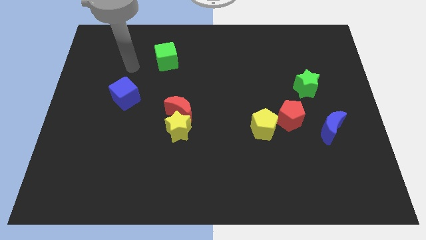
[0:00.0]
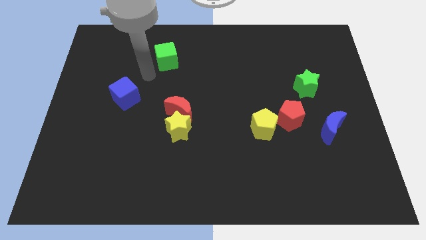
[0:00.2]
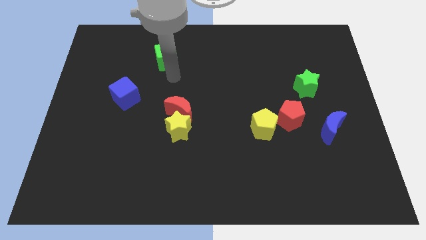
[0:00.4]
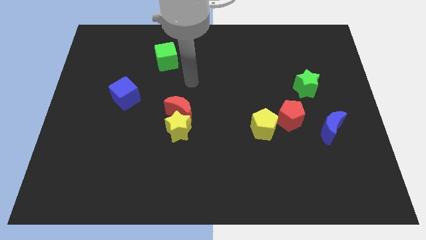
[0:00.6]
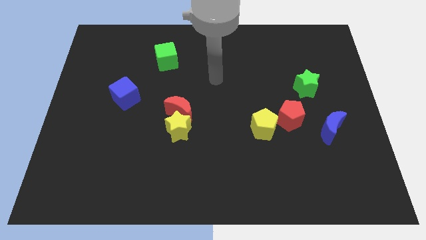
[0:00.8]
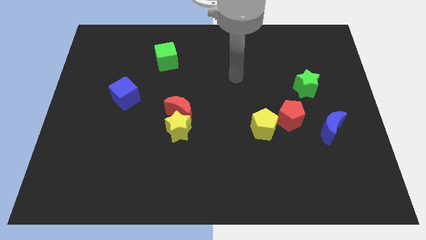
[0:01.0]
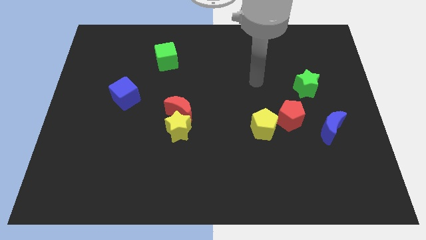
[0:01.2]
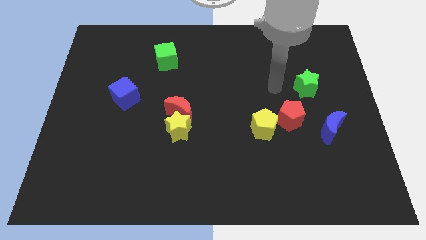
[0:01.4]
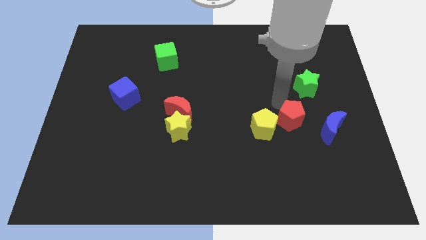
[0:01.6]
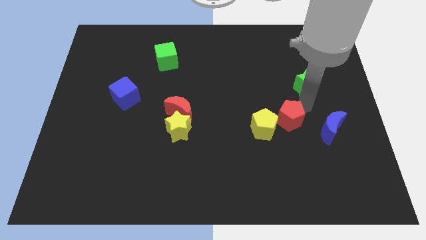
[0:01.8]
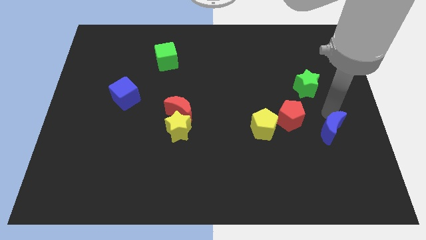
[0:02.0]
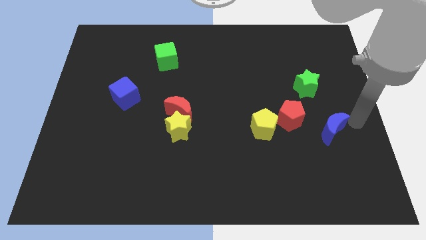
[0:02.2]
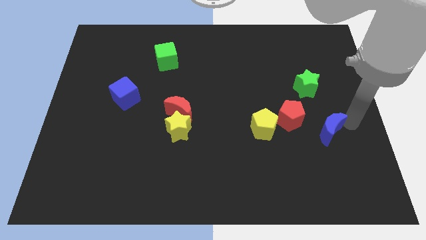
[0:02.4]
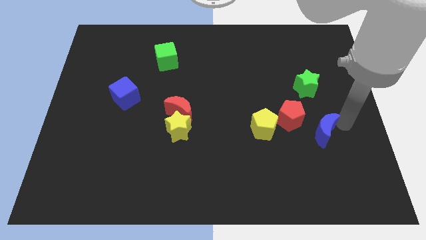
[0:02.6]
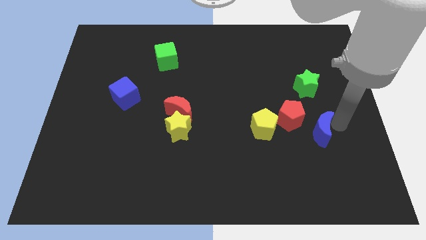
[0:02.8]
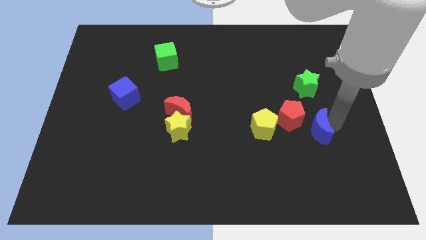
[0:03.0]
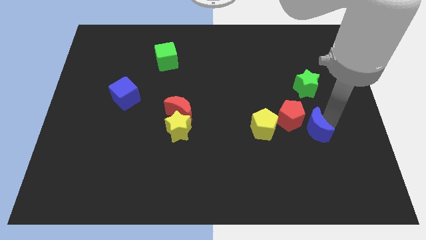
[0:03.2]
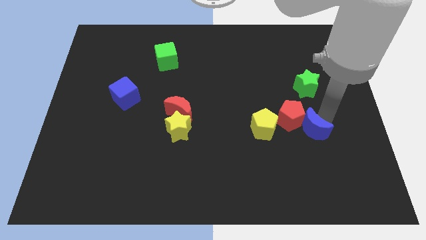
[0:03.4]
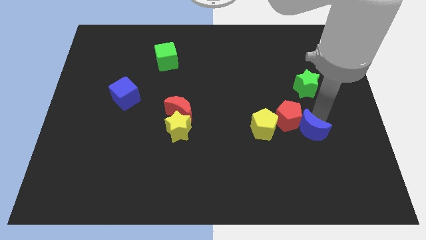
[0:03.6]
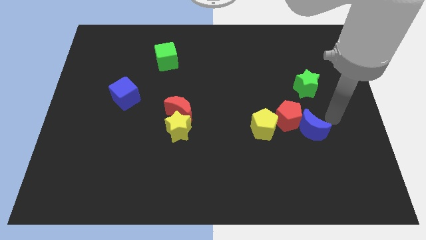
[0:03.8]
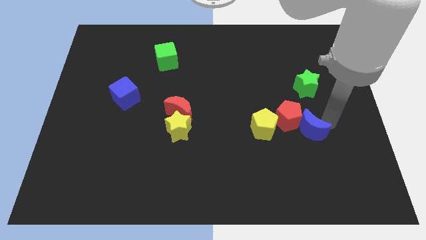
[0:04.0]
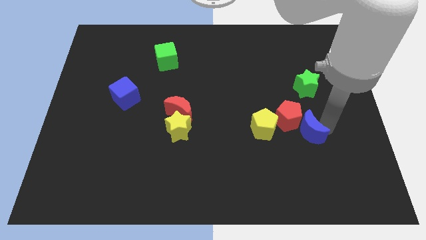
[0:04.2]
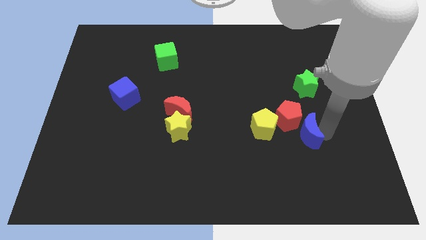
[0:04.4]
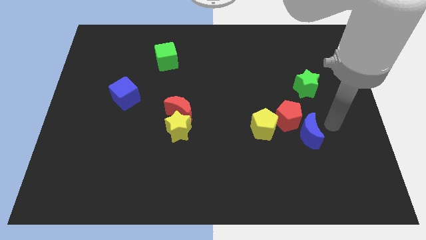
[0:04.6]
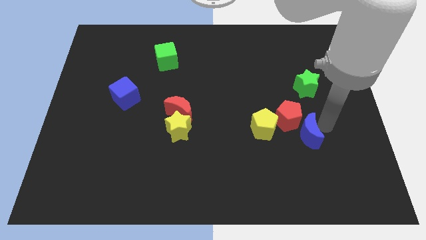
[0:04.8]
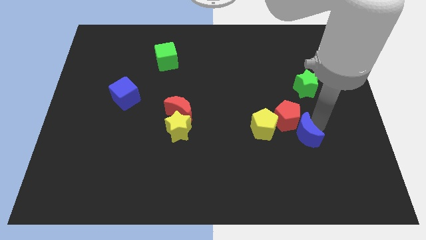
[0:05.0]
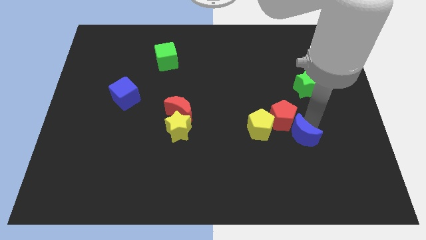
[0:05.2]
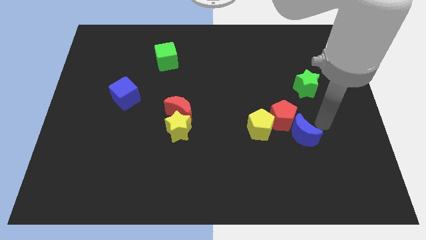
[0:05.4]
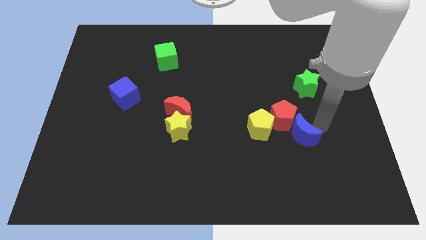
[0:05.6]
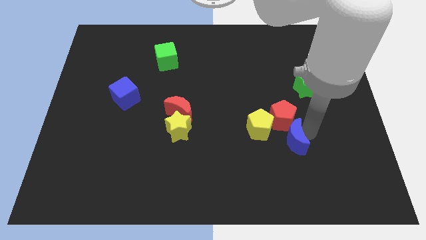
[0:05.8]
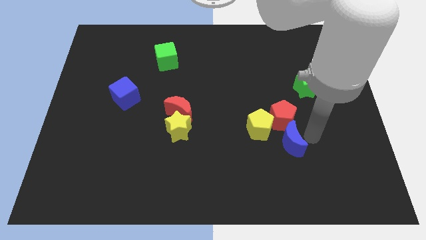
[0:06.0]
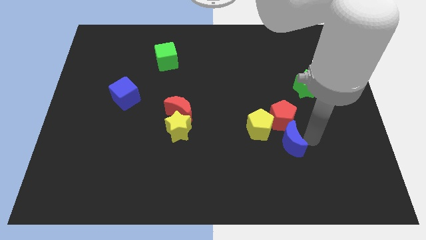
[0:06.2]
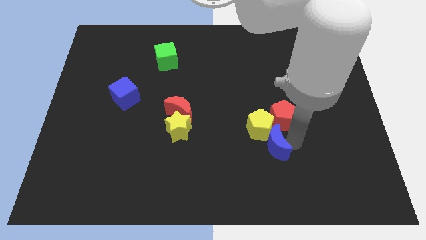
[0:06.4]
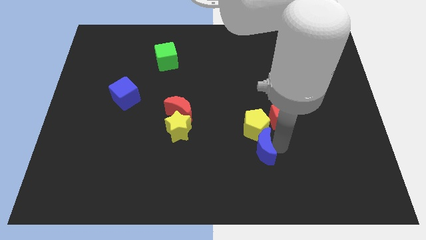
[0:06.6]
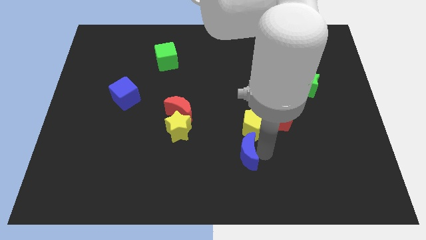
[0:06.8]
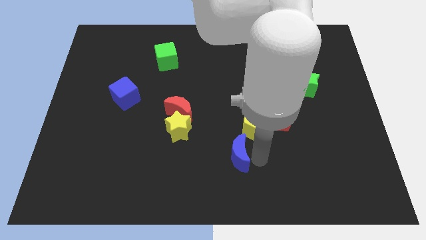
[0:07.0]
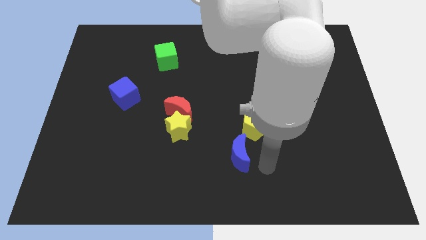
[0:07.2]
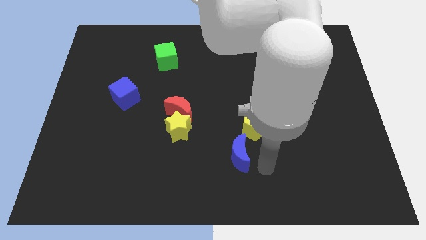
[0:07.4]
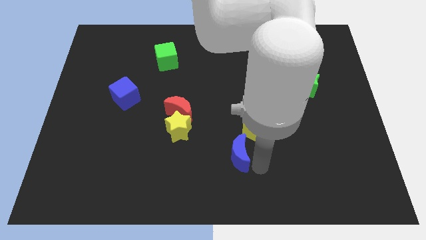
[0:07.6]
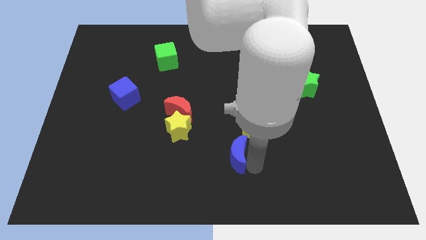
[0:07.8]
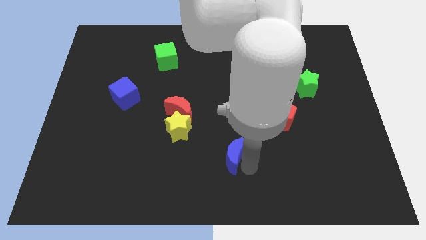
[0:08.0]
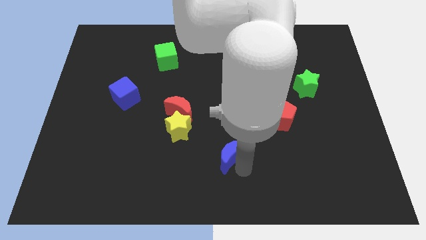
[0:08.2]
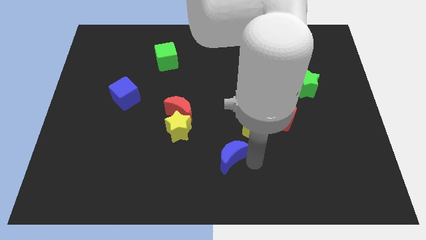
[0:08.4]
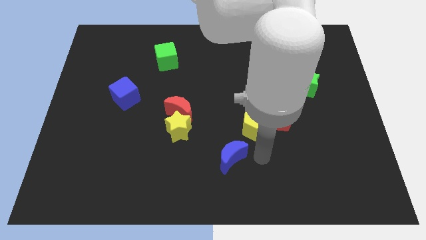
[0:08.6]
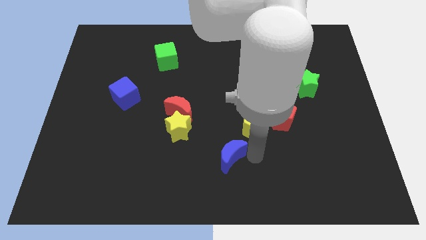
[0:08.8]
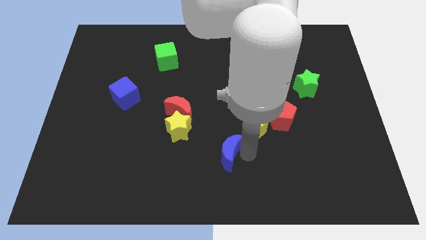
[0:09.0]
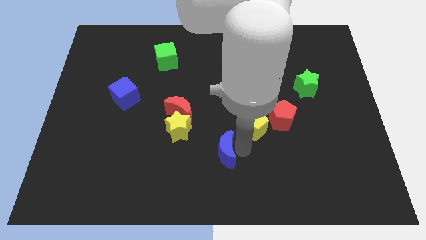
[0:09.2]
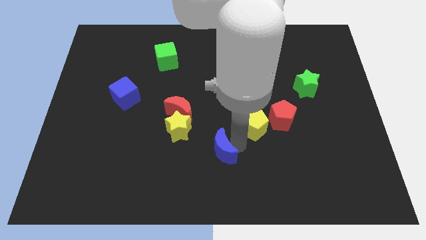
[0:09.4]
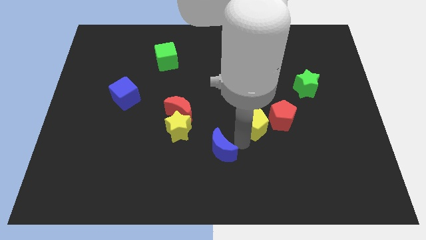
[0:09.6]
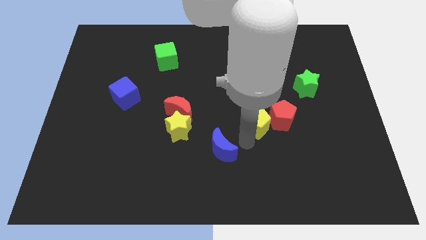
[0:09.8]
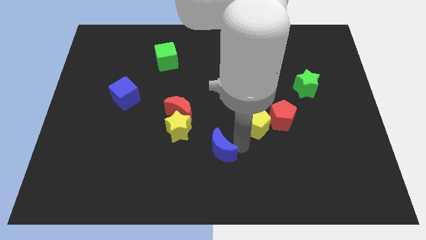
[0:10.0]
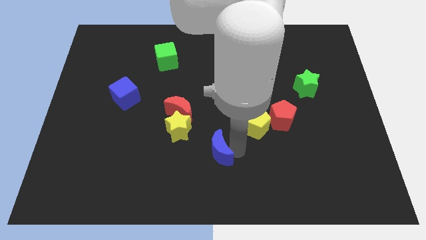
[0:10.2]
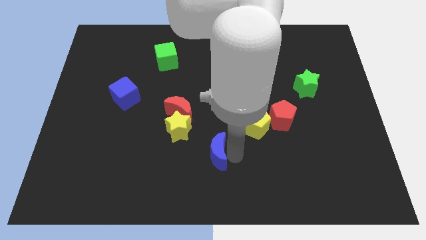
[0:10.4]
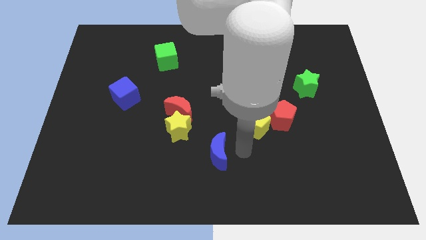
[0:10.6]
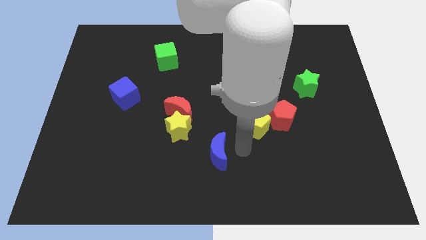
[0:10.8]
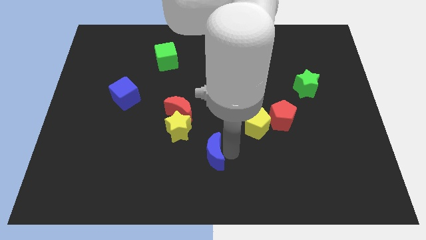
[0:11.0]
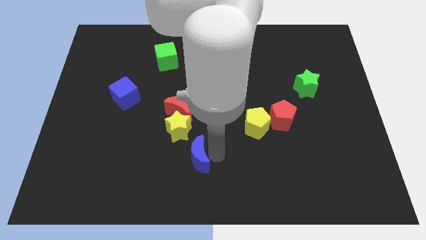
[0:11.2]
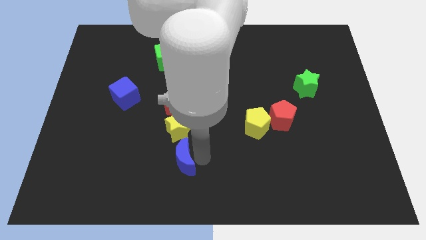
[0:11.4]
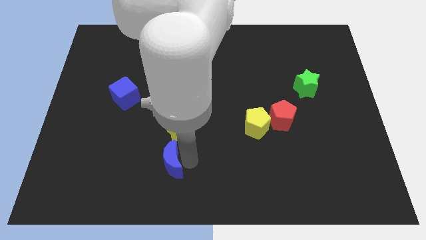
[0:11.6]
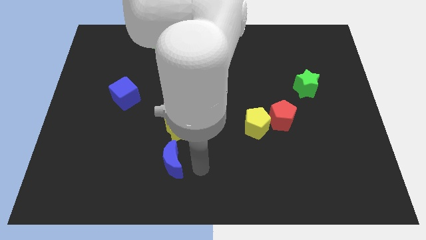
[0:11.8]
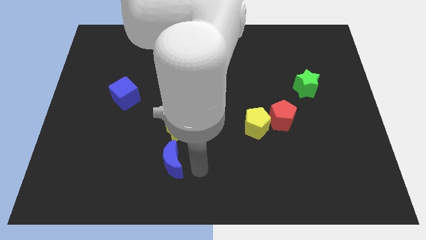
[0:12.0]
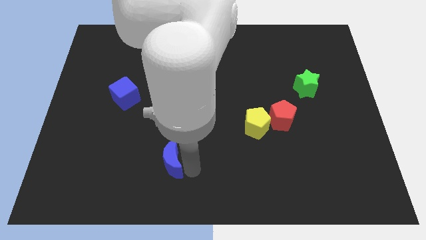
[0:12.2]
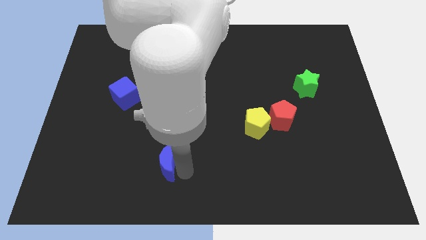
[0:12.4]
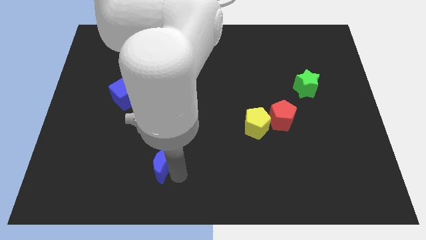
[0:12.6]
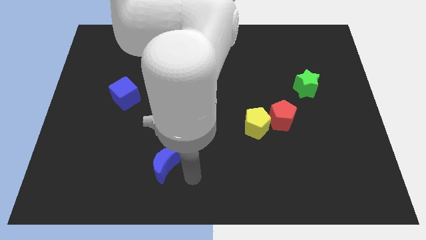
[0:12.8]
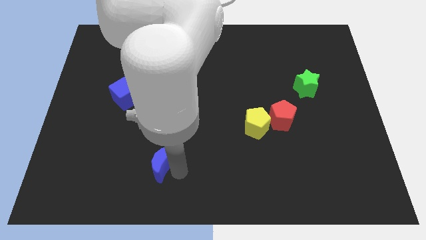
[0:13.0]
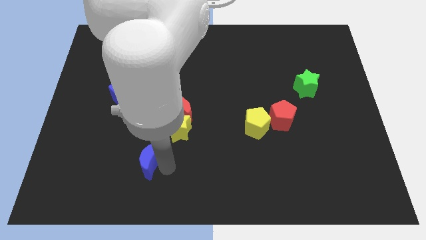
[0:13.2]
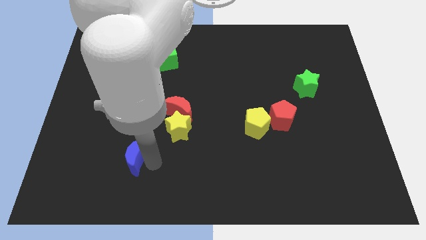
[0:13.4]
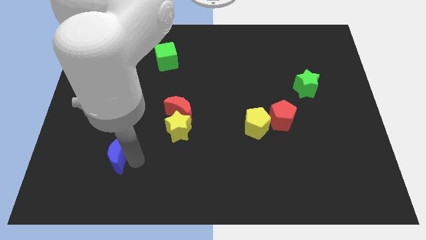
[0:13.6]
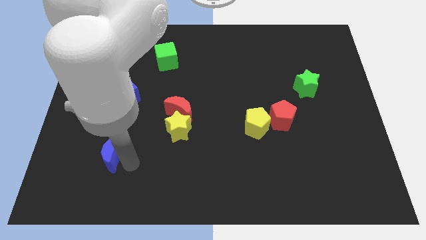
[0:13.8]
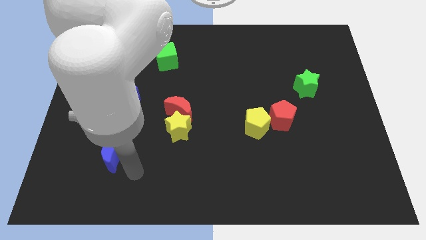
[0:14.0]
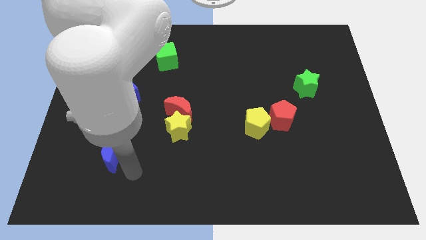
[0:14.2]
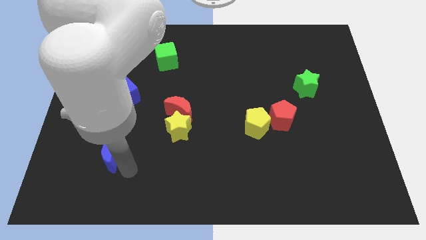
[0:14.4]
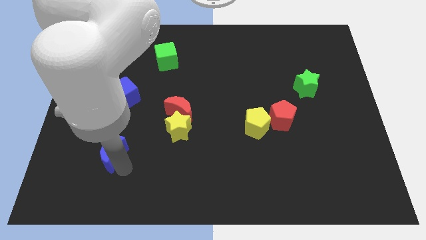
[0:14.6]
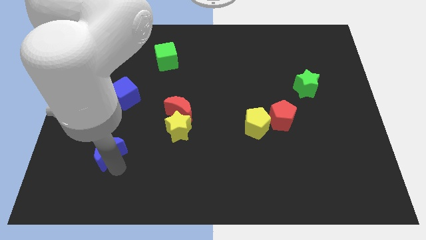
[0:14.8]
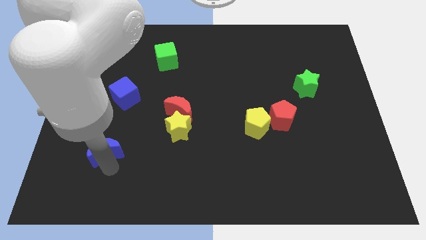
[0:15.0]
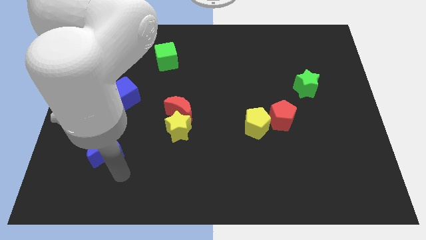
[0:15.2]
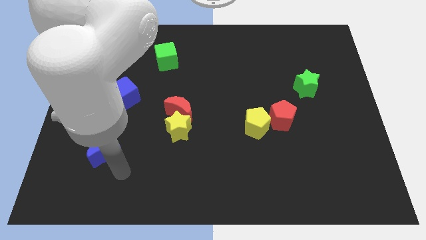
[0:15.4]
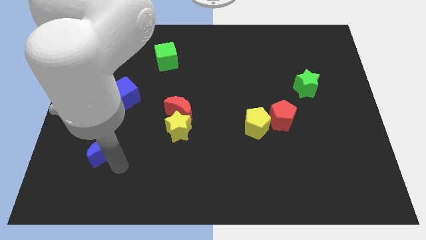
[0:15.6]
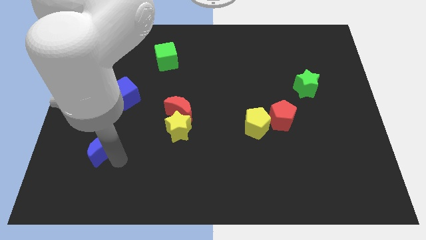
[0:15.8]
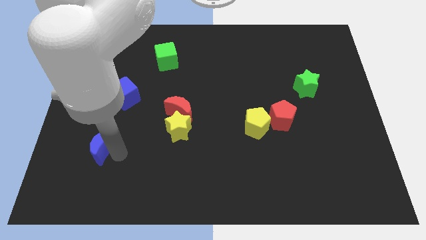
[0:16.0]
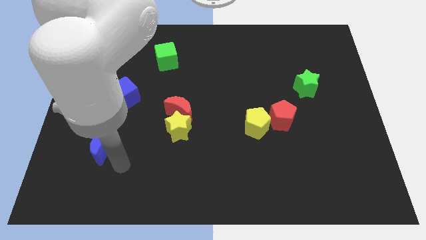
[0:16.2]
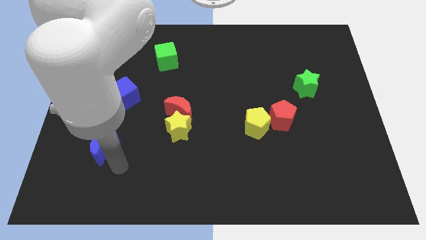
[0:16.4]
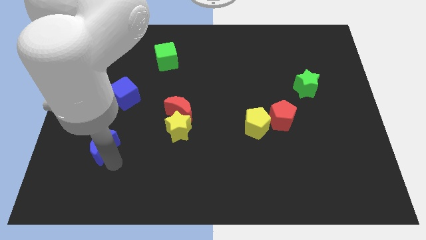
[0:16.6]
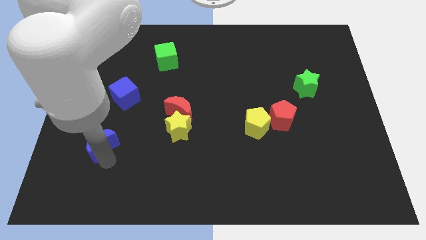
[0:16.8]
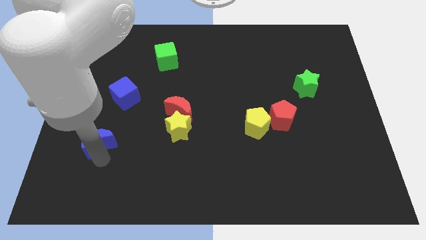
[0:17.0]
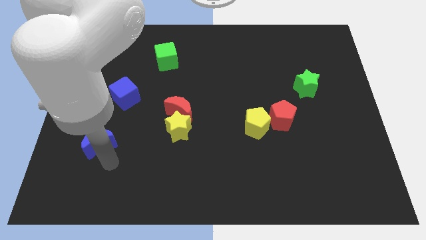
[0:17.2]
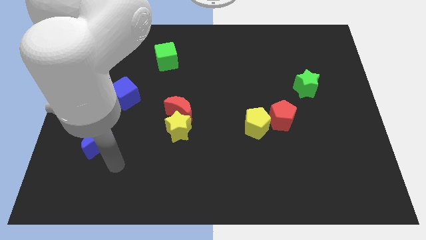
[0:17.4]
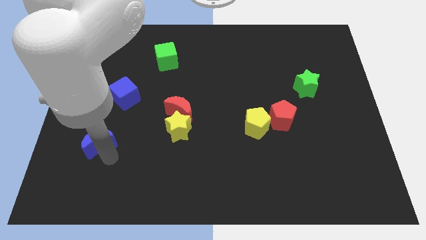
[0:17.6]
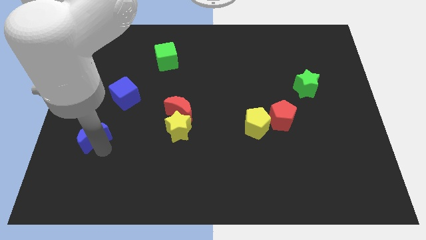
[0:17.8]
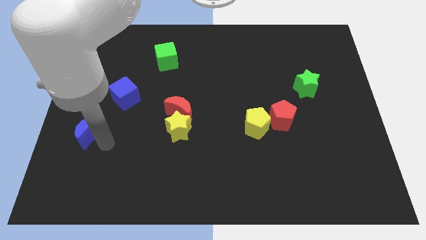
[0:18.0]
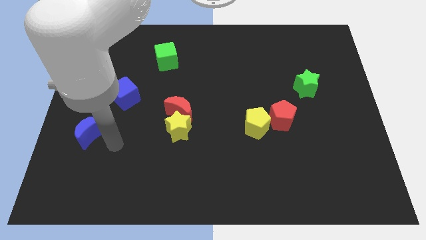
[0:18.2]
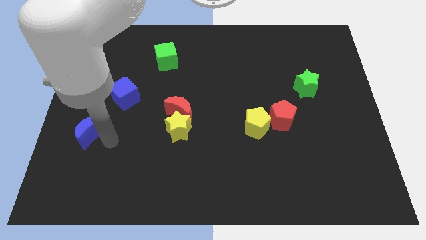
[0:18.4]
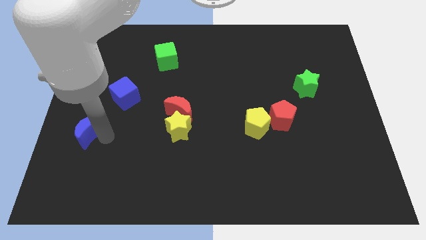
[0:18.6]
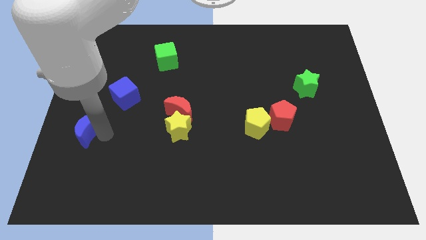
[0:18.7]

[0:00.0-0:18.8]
slide the blue moon to the left side
